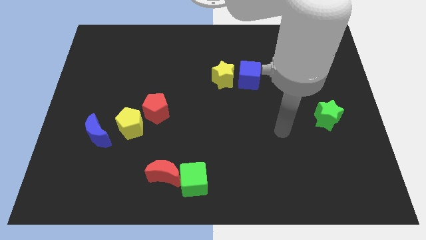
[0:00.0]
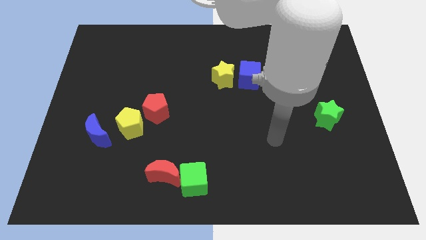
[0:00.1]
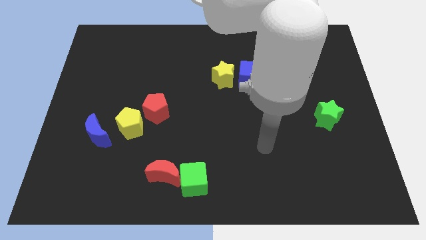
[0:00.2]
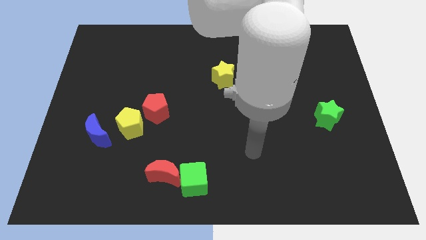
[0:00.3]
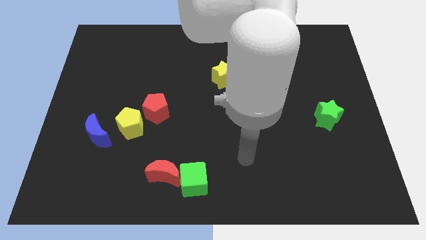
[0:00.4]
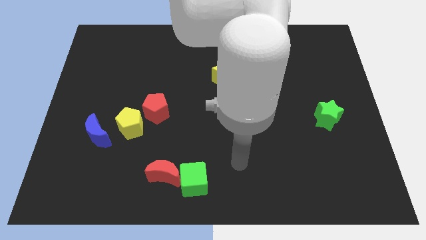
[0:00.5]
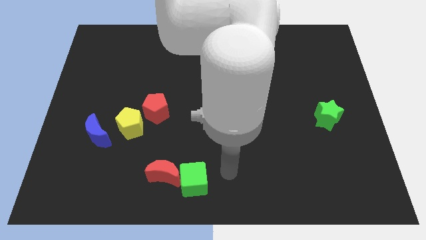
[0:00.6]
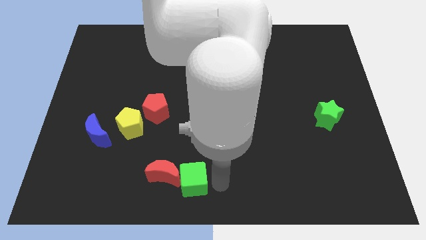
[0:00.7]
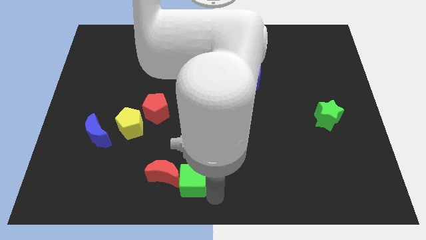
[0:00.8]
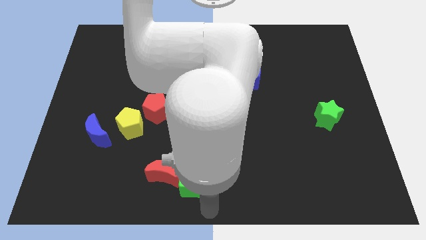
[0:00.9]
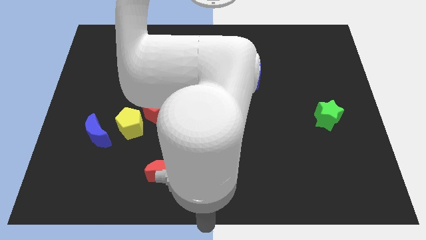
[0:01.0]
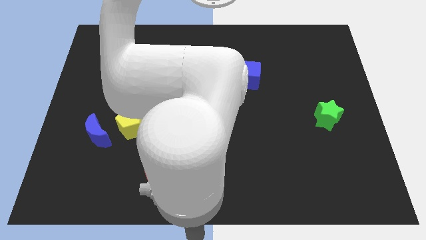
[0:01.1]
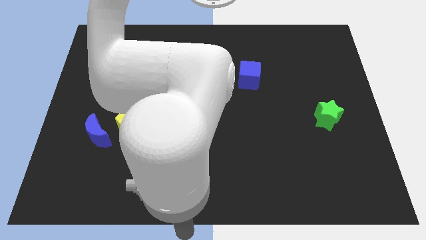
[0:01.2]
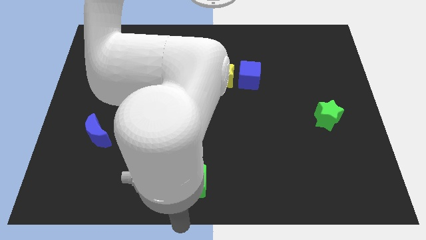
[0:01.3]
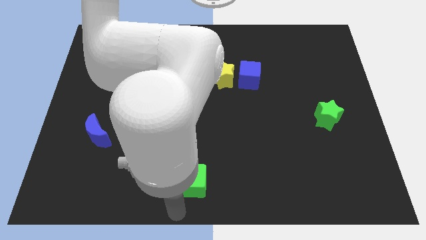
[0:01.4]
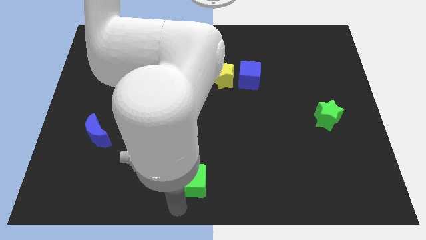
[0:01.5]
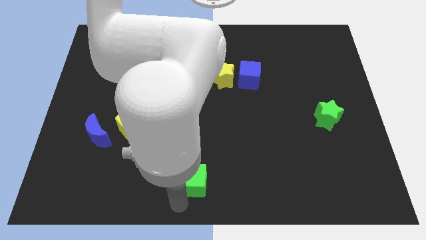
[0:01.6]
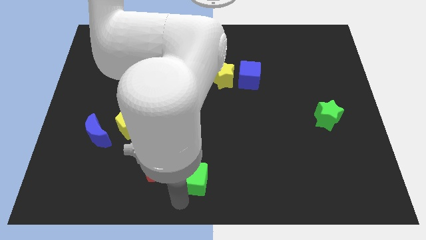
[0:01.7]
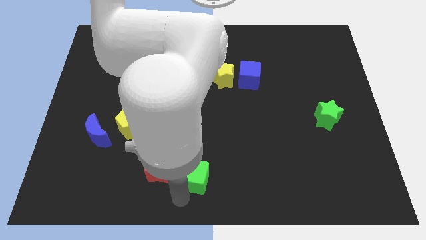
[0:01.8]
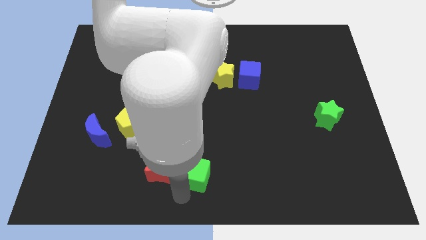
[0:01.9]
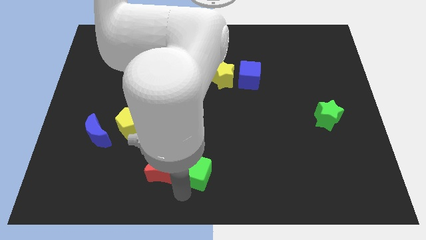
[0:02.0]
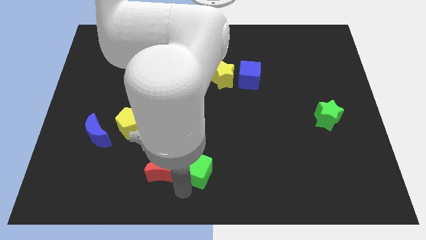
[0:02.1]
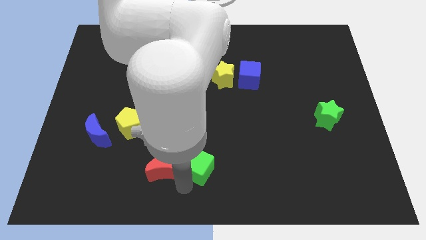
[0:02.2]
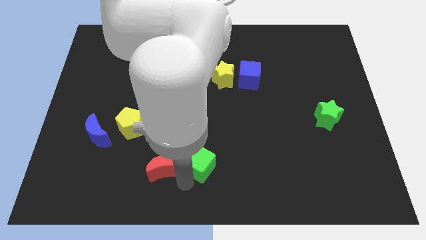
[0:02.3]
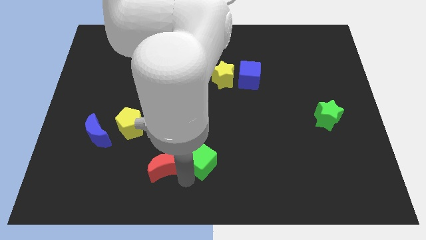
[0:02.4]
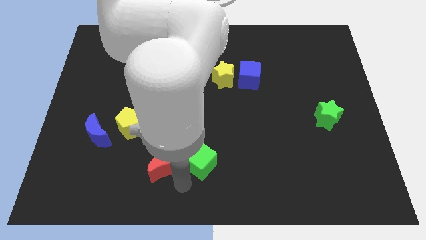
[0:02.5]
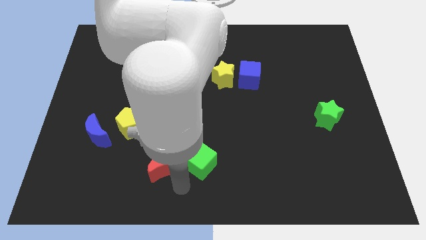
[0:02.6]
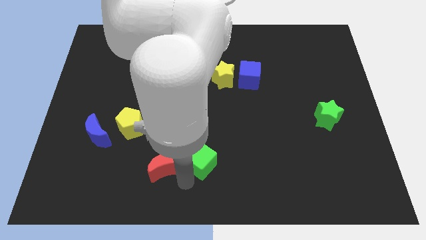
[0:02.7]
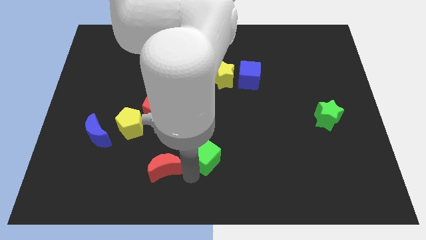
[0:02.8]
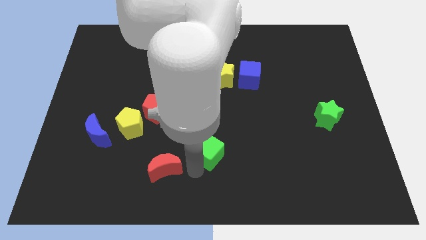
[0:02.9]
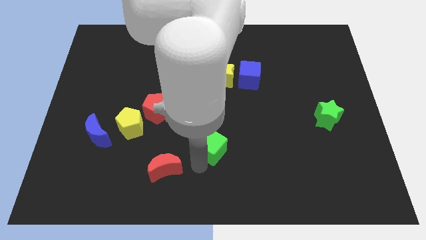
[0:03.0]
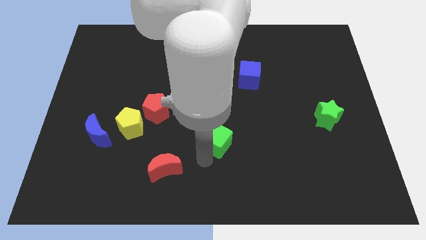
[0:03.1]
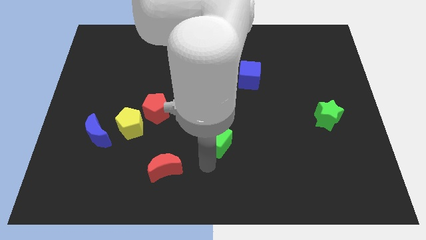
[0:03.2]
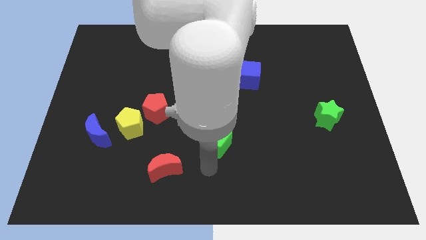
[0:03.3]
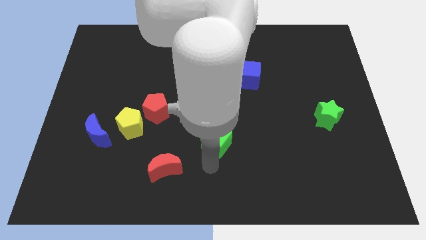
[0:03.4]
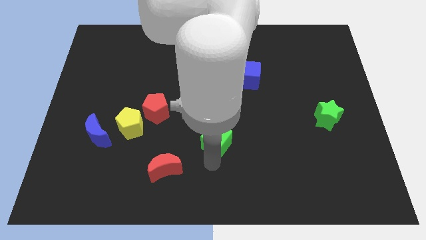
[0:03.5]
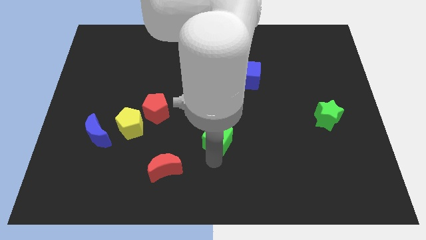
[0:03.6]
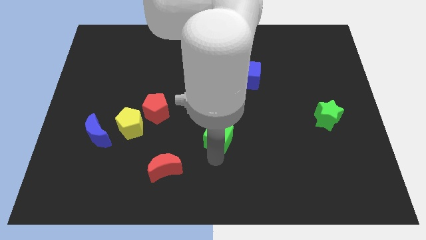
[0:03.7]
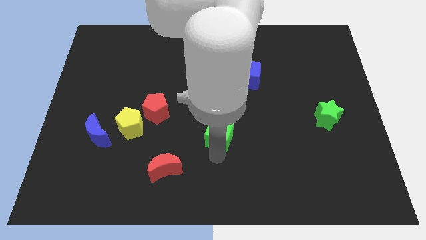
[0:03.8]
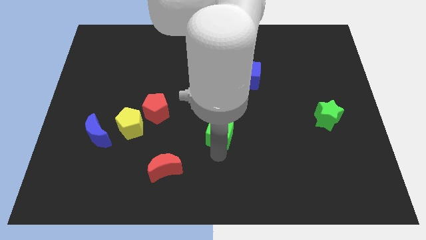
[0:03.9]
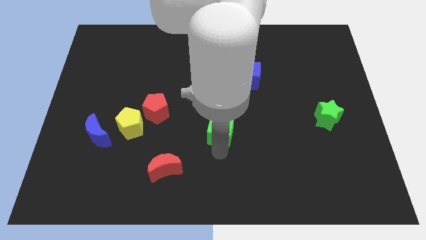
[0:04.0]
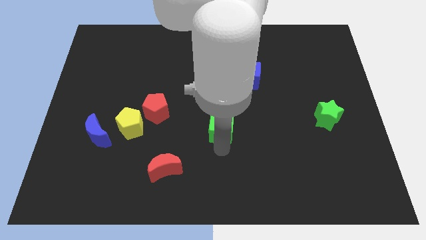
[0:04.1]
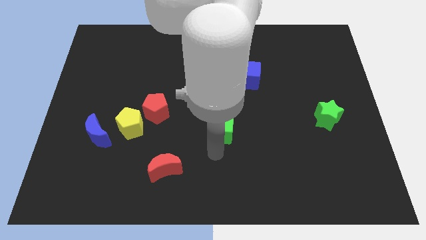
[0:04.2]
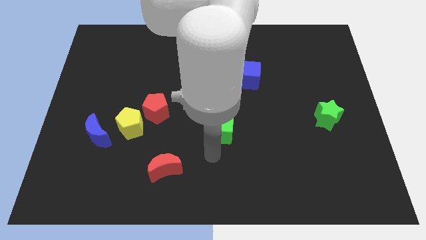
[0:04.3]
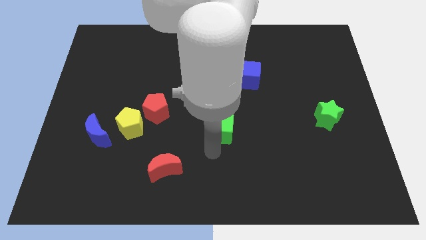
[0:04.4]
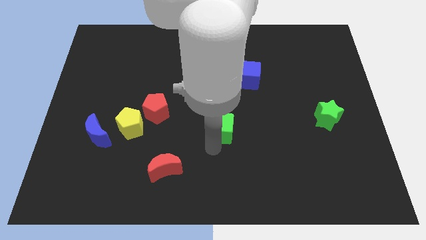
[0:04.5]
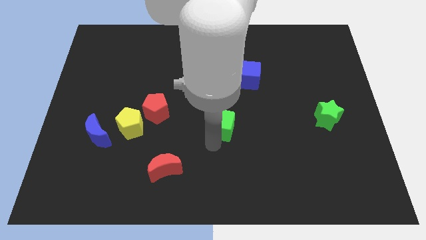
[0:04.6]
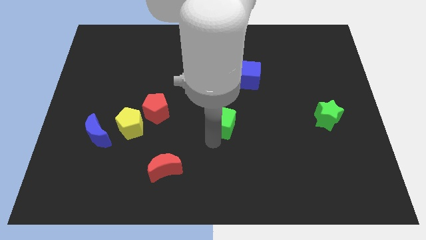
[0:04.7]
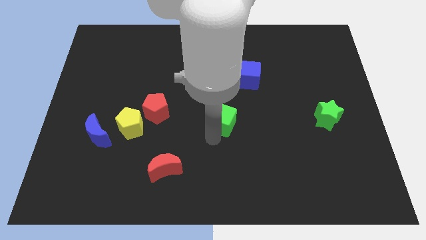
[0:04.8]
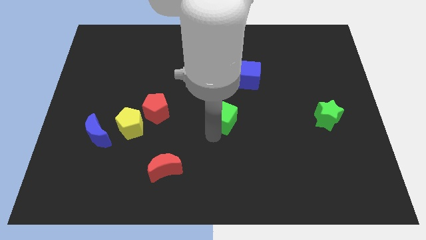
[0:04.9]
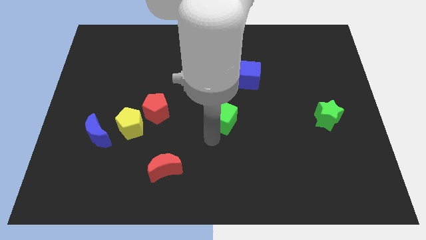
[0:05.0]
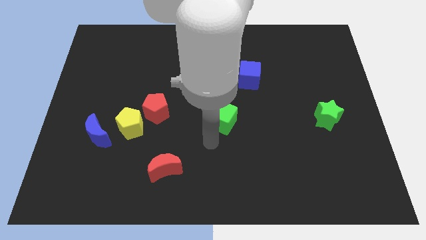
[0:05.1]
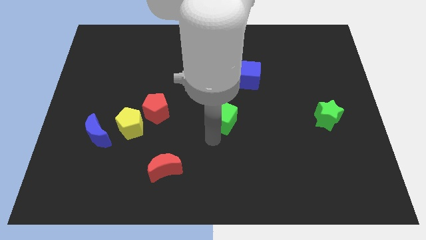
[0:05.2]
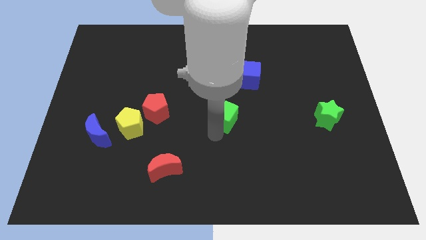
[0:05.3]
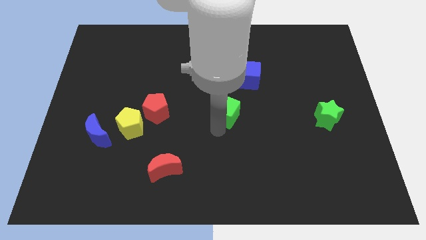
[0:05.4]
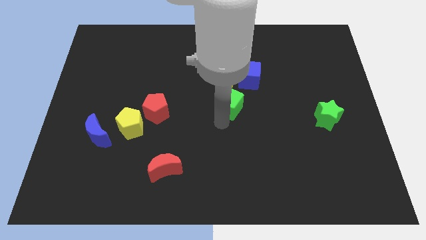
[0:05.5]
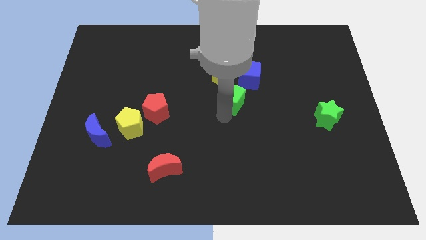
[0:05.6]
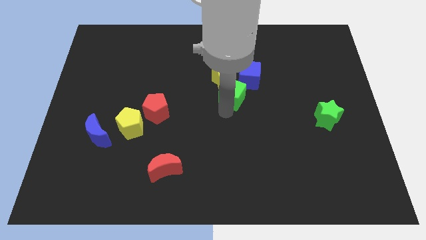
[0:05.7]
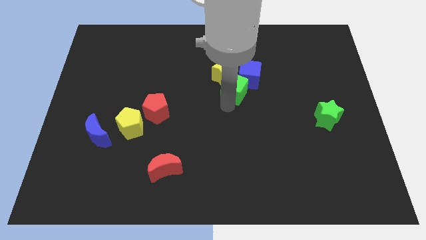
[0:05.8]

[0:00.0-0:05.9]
push the green cube to the blue cube

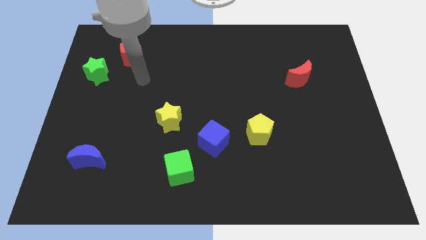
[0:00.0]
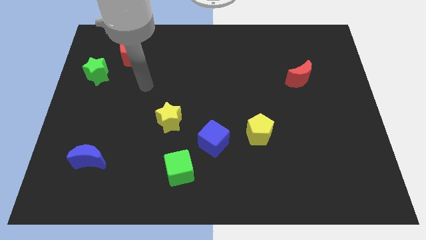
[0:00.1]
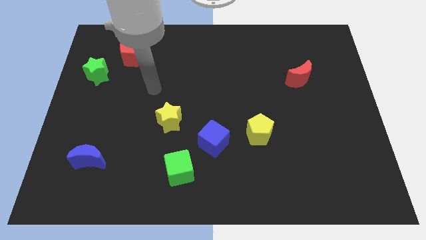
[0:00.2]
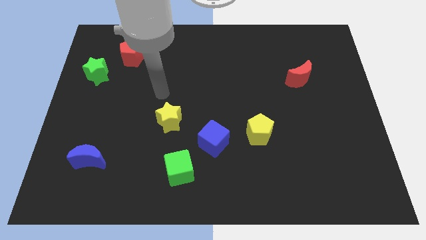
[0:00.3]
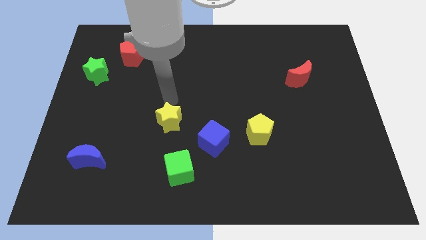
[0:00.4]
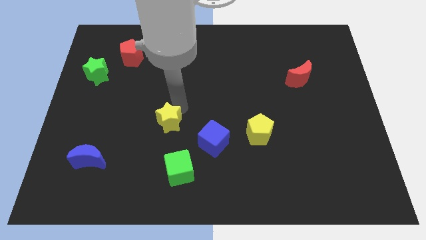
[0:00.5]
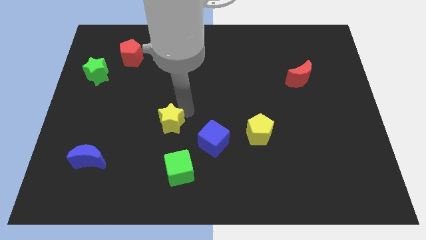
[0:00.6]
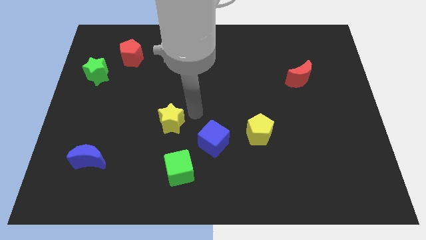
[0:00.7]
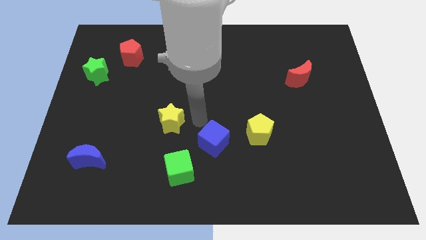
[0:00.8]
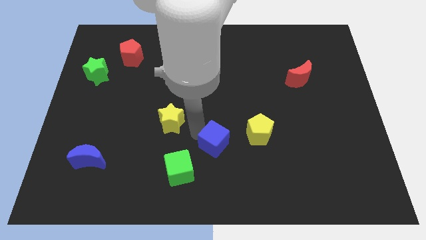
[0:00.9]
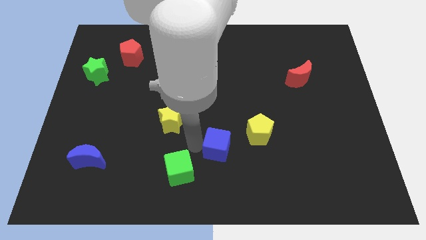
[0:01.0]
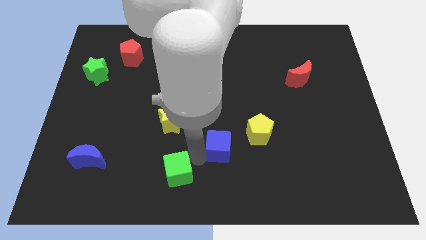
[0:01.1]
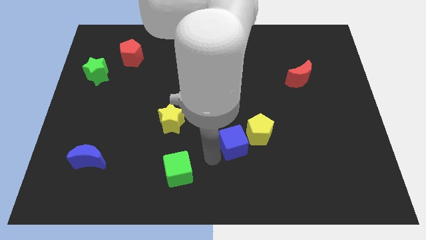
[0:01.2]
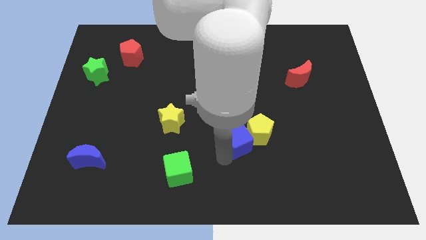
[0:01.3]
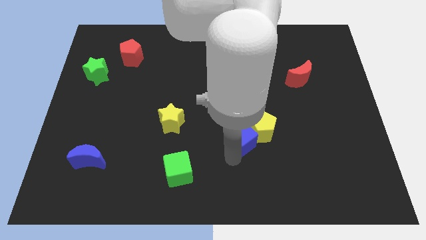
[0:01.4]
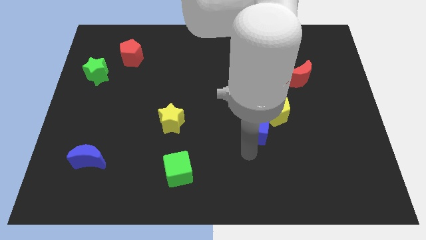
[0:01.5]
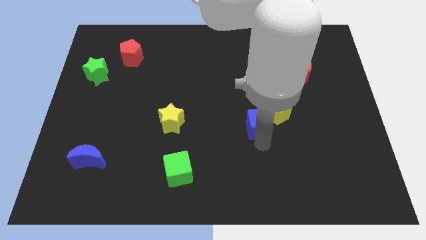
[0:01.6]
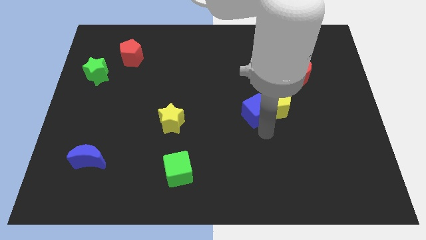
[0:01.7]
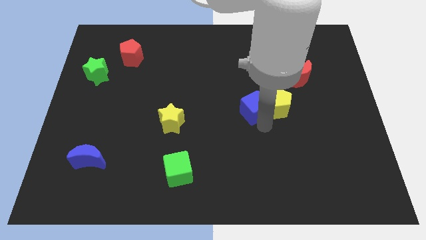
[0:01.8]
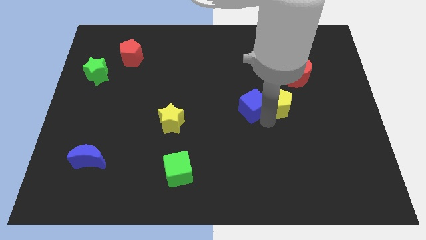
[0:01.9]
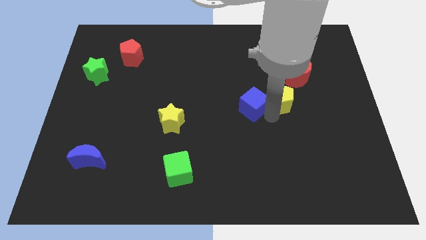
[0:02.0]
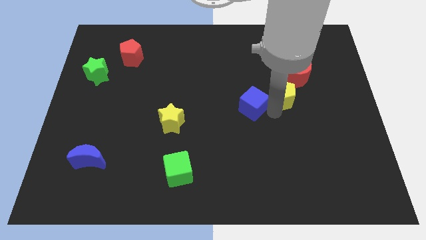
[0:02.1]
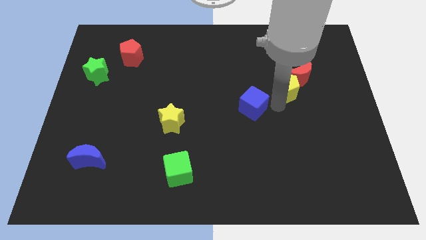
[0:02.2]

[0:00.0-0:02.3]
put the yellow pentagon to the red moon
